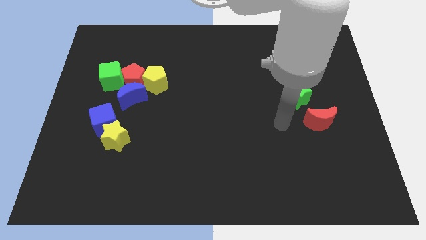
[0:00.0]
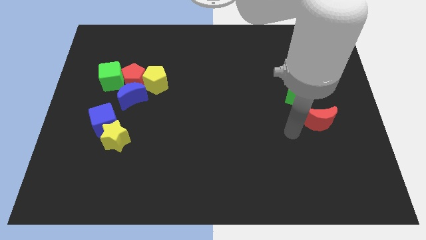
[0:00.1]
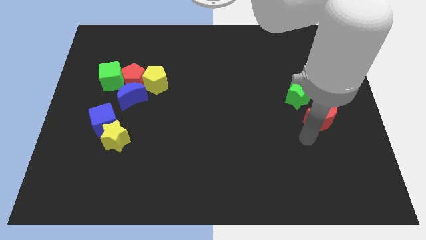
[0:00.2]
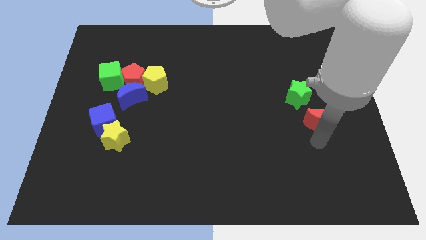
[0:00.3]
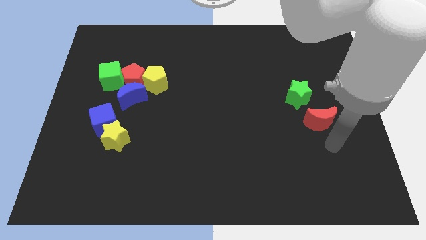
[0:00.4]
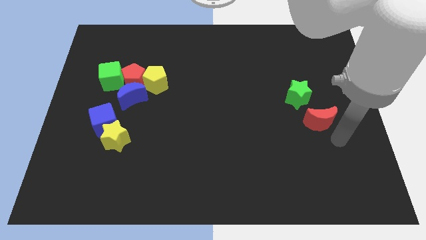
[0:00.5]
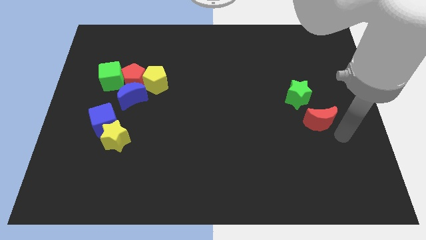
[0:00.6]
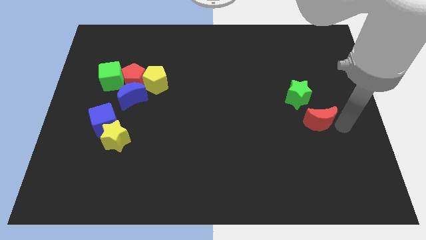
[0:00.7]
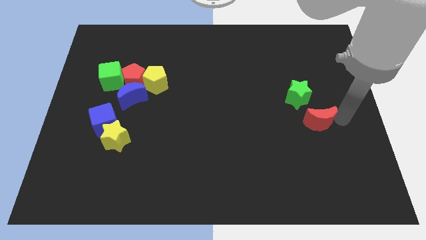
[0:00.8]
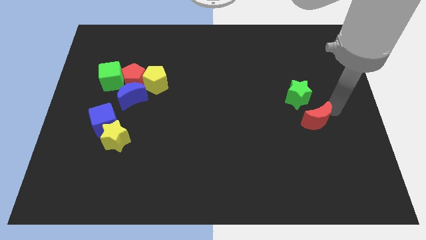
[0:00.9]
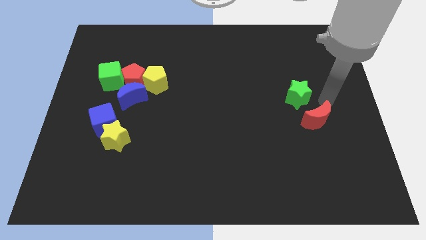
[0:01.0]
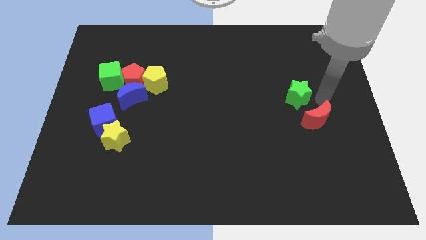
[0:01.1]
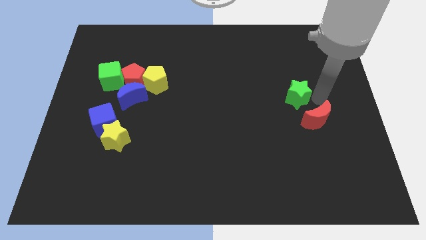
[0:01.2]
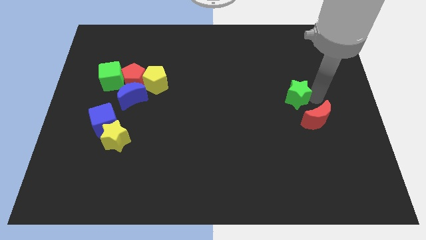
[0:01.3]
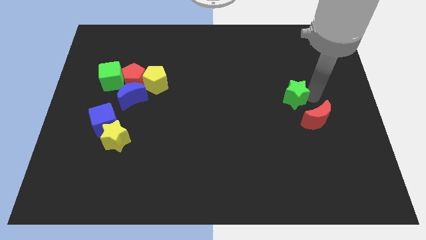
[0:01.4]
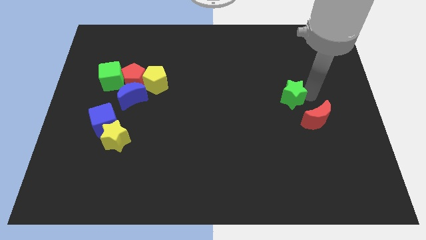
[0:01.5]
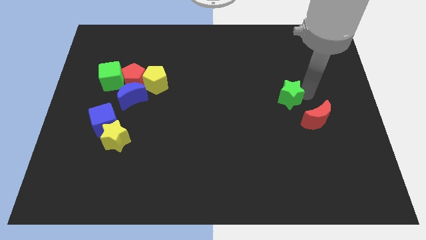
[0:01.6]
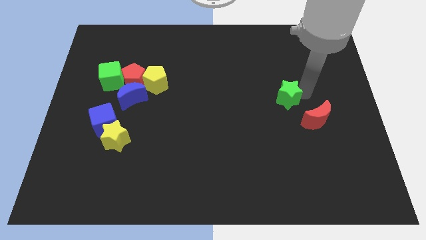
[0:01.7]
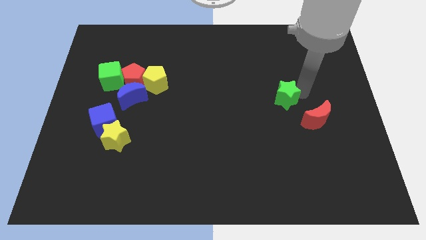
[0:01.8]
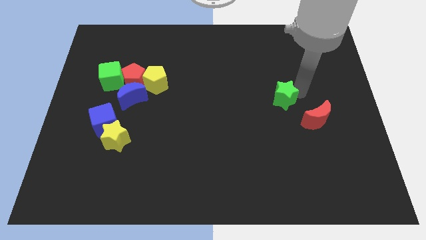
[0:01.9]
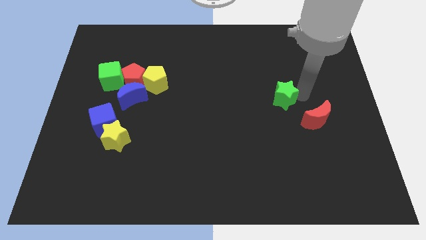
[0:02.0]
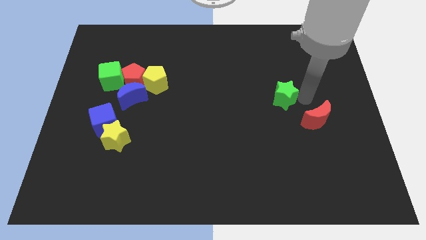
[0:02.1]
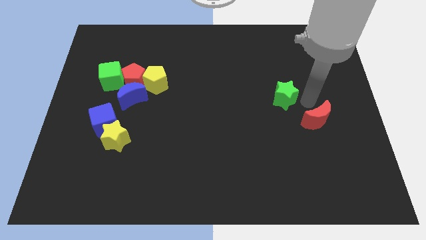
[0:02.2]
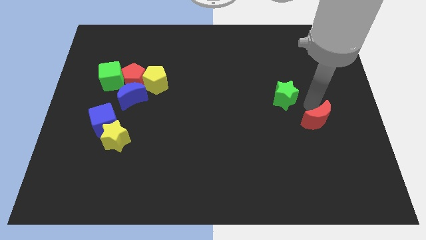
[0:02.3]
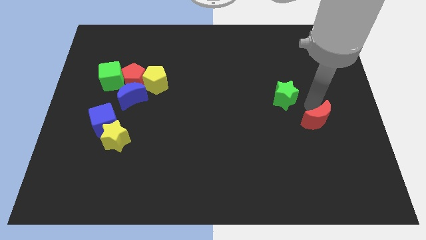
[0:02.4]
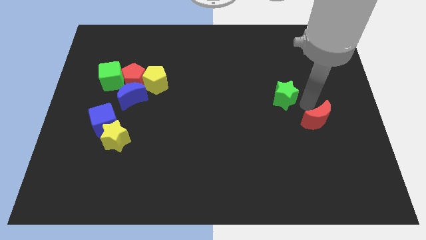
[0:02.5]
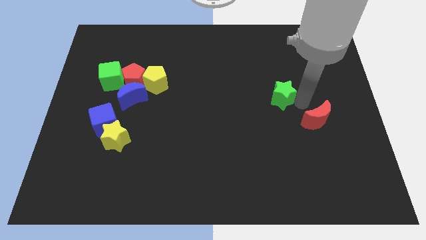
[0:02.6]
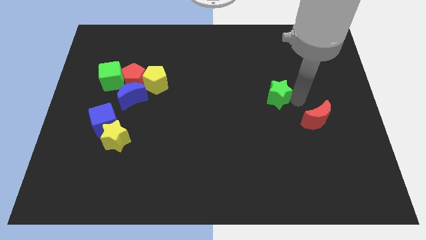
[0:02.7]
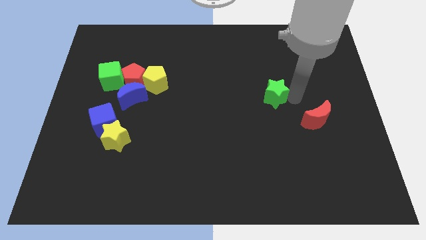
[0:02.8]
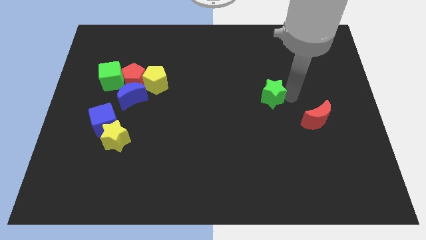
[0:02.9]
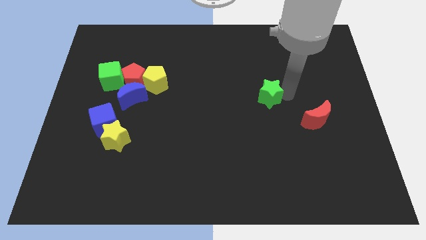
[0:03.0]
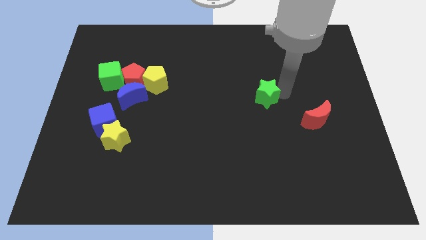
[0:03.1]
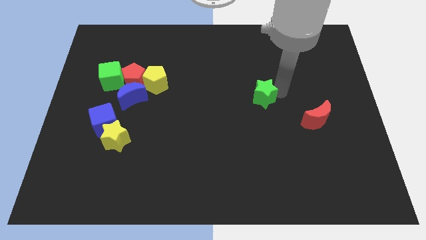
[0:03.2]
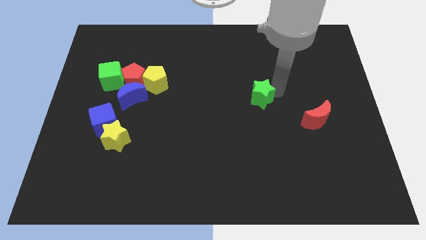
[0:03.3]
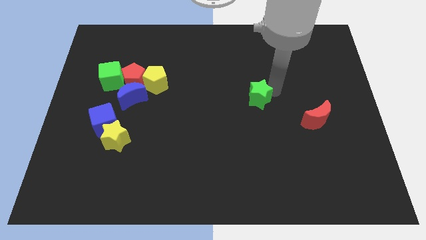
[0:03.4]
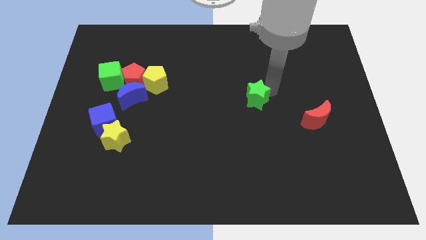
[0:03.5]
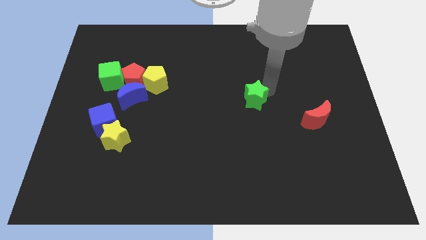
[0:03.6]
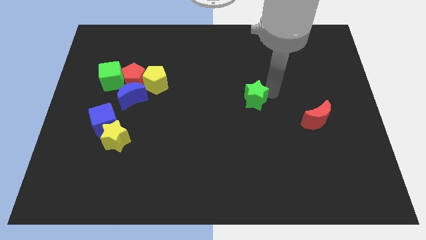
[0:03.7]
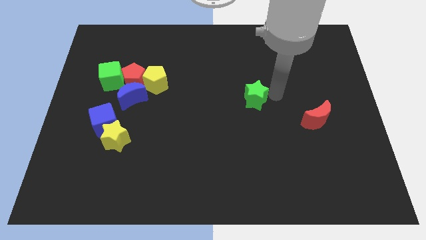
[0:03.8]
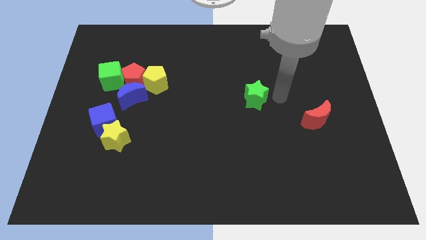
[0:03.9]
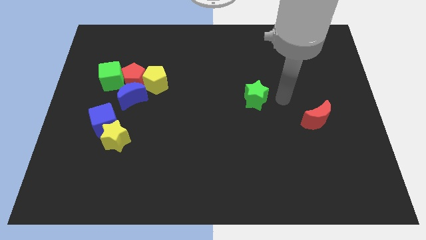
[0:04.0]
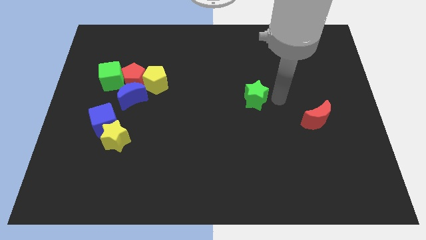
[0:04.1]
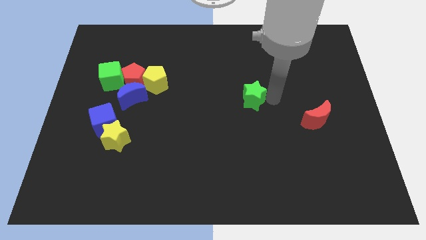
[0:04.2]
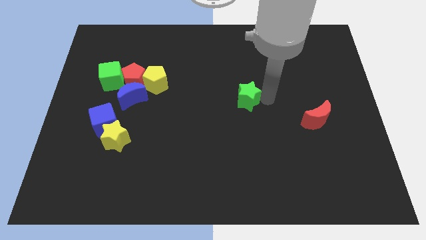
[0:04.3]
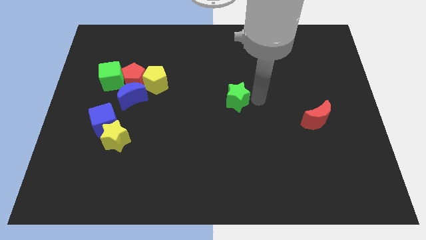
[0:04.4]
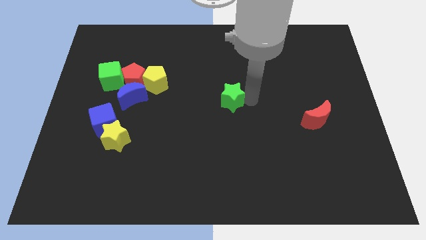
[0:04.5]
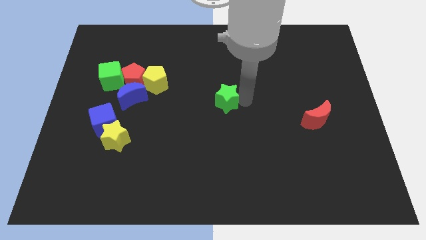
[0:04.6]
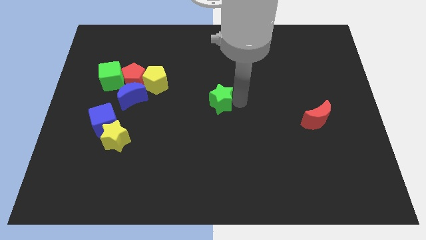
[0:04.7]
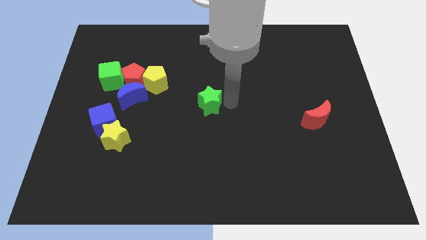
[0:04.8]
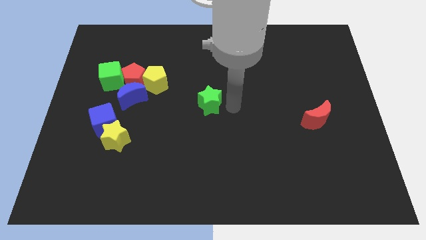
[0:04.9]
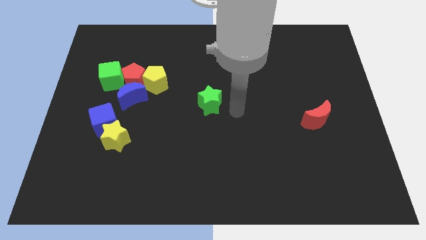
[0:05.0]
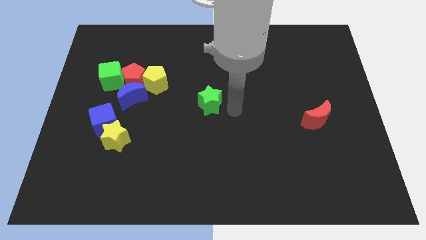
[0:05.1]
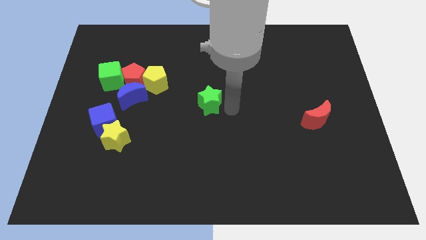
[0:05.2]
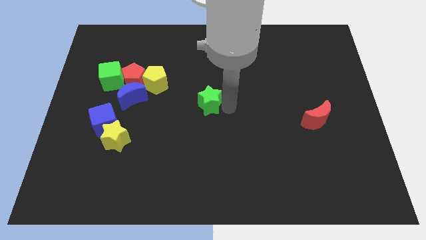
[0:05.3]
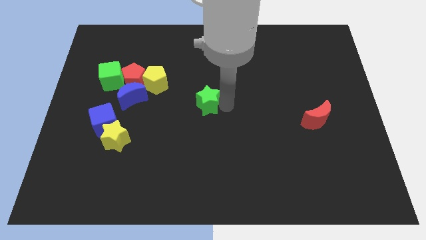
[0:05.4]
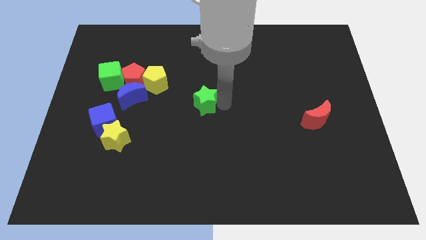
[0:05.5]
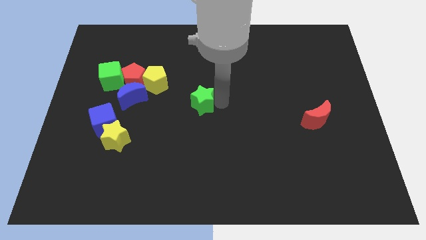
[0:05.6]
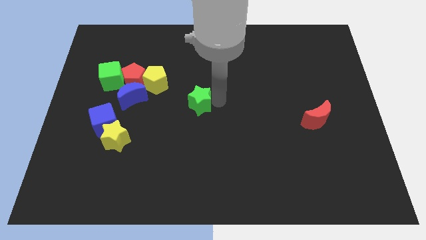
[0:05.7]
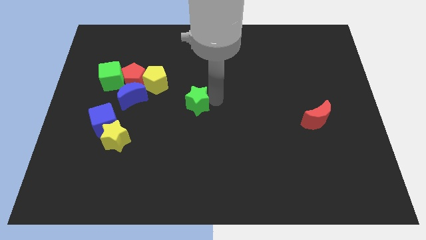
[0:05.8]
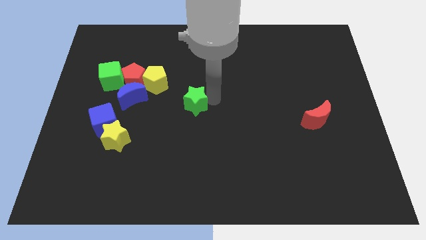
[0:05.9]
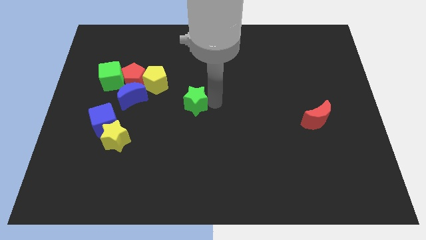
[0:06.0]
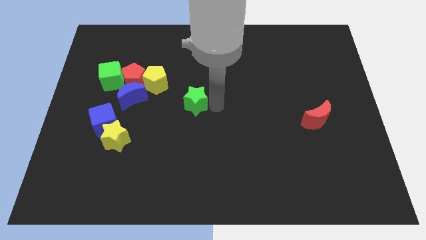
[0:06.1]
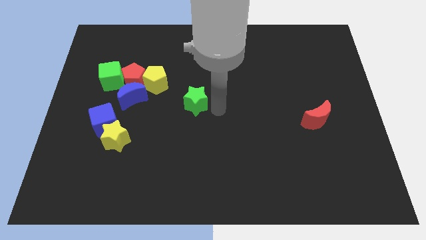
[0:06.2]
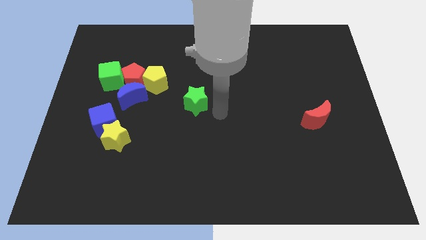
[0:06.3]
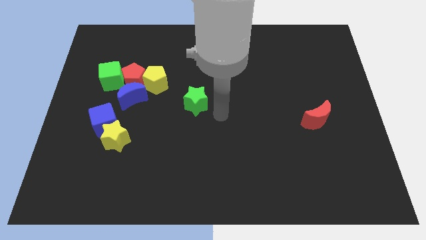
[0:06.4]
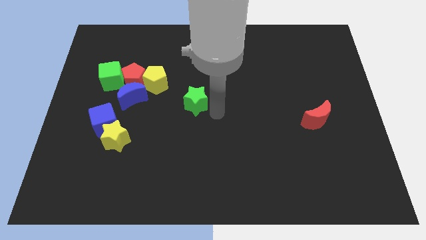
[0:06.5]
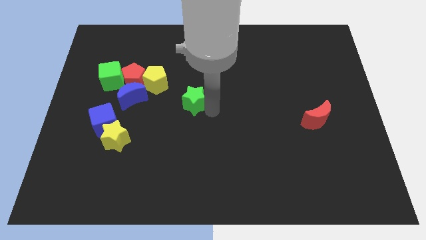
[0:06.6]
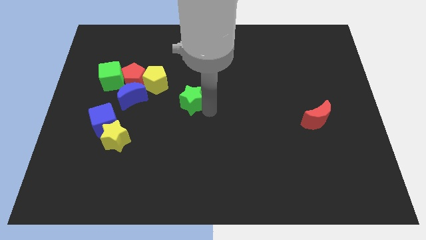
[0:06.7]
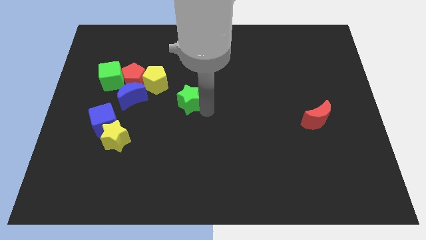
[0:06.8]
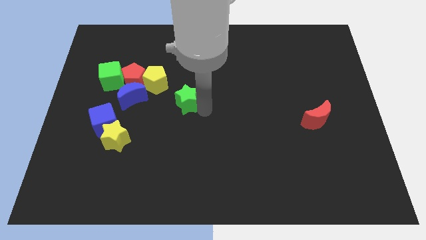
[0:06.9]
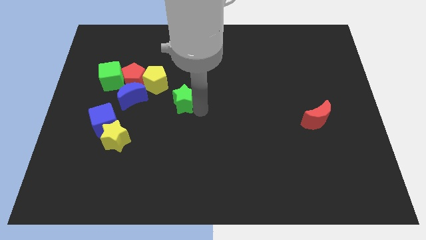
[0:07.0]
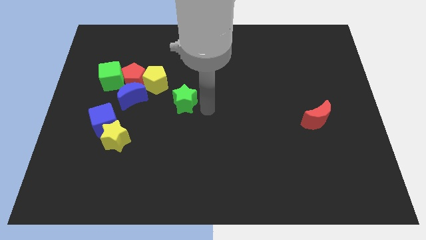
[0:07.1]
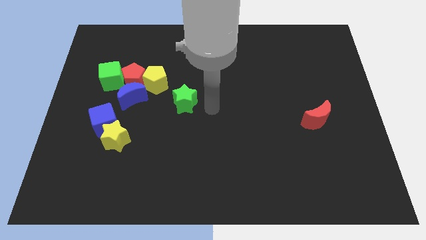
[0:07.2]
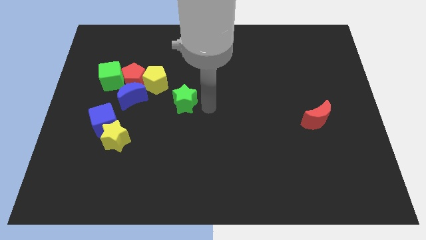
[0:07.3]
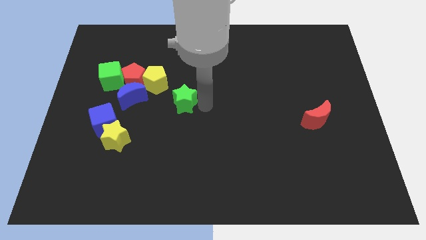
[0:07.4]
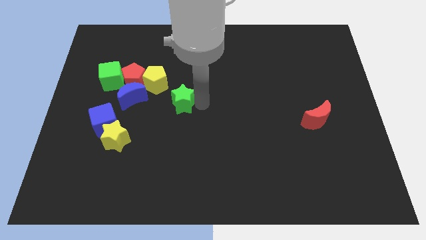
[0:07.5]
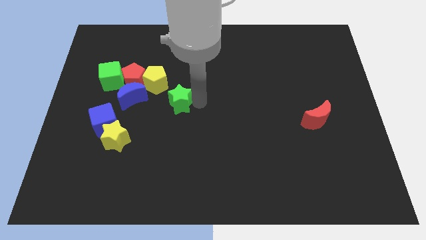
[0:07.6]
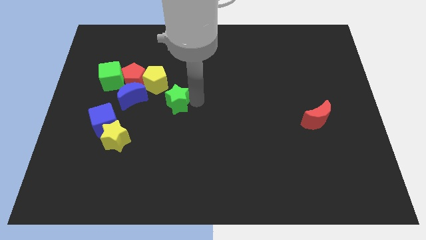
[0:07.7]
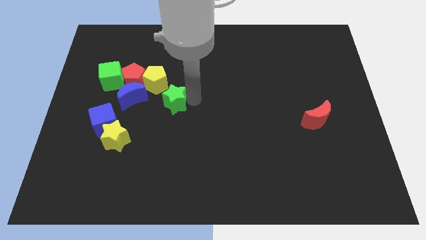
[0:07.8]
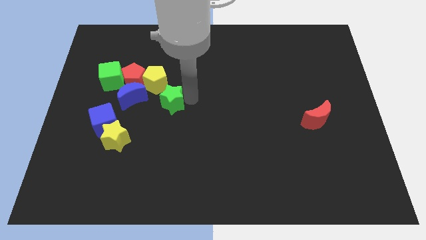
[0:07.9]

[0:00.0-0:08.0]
move the green star to the bottom right of the red pentagon
